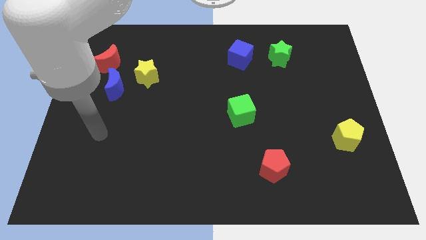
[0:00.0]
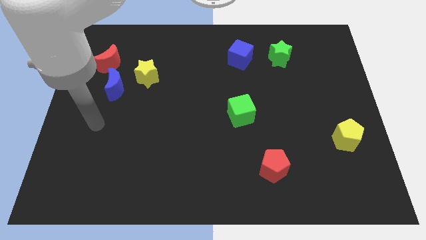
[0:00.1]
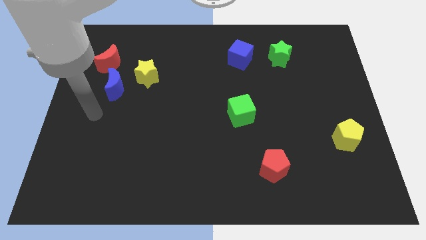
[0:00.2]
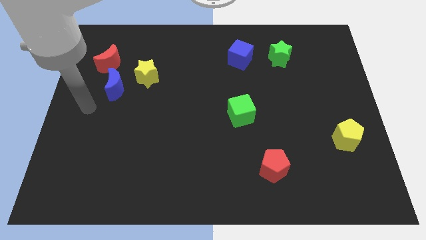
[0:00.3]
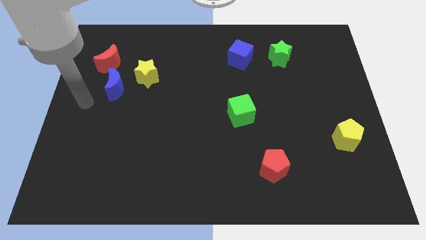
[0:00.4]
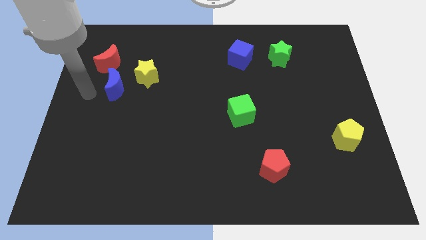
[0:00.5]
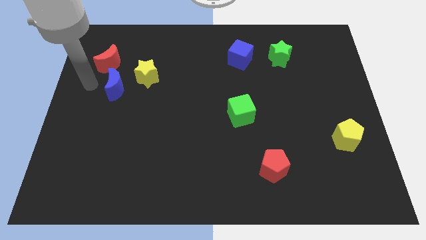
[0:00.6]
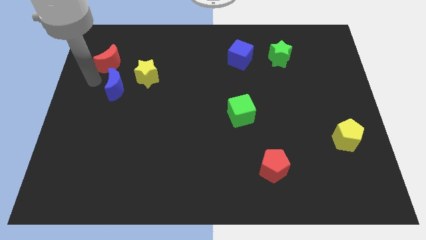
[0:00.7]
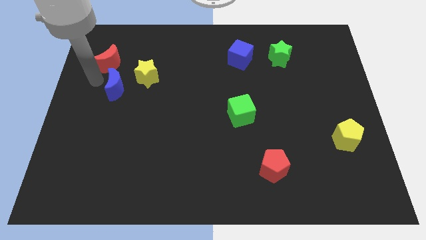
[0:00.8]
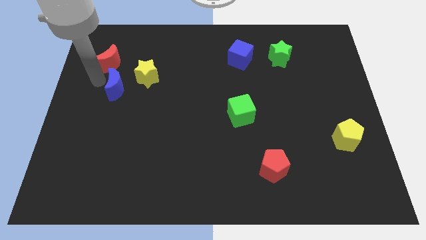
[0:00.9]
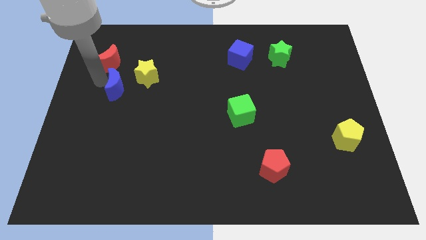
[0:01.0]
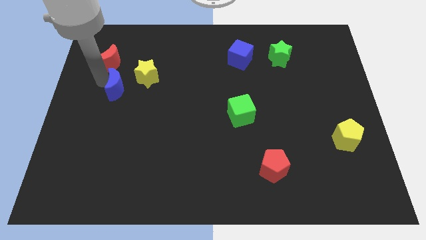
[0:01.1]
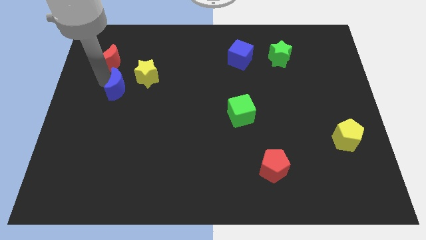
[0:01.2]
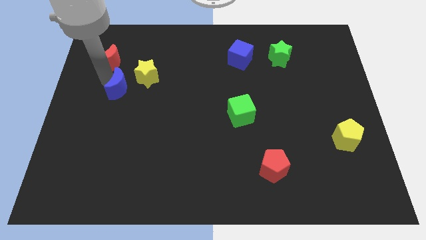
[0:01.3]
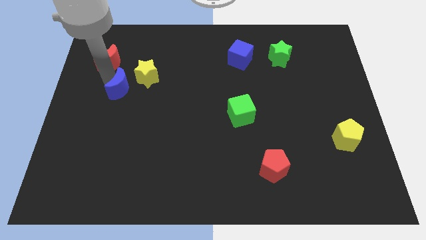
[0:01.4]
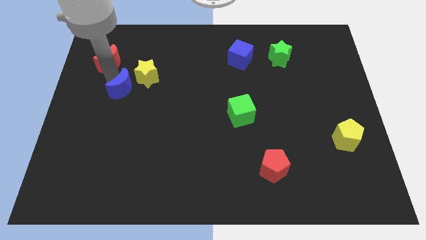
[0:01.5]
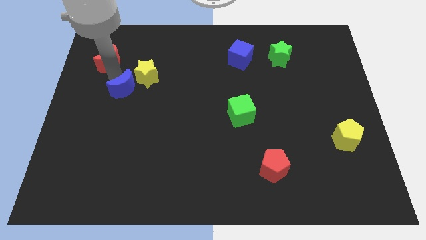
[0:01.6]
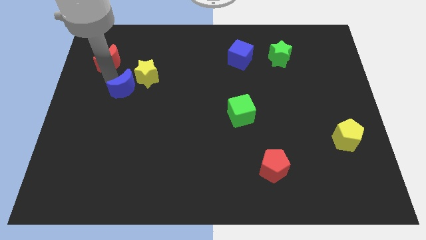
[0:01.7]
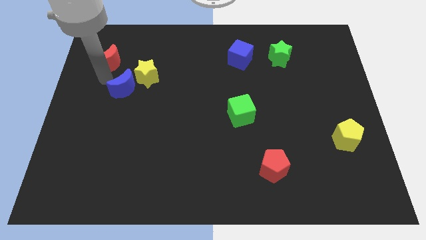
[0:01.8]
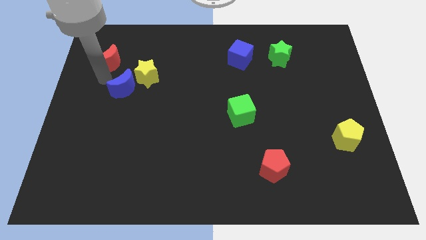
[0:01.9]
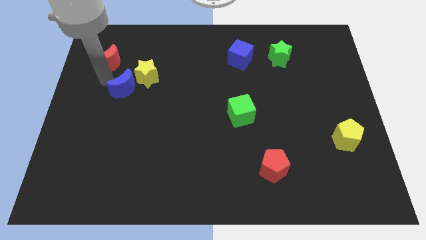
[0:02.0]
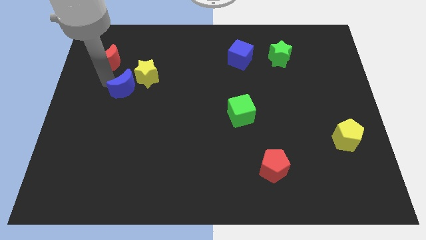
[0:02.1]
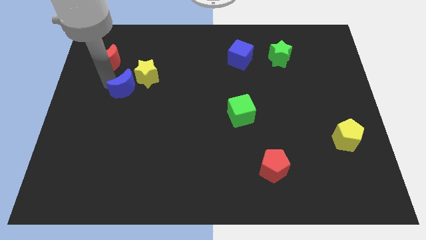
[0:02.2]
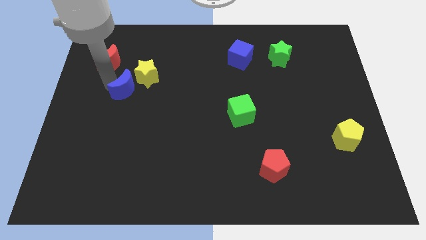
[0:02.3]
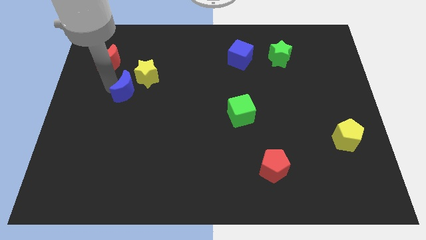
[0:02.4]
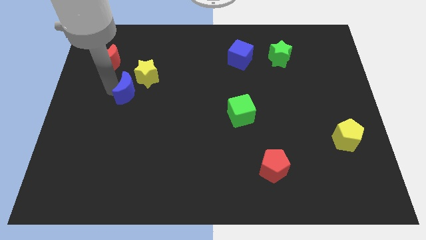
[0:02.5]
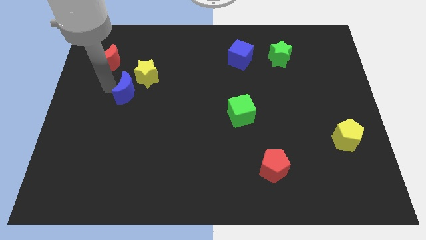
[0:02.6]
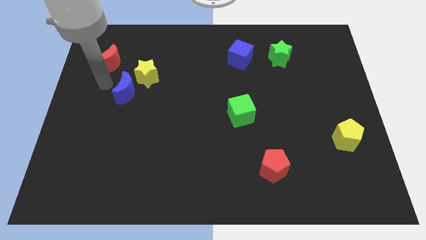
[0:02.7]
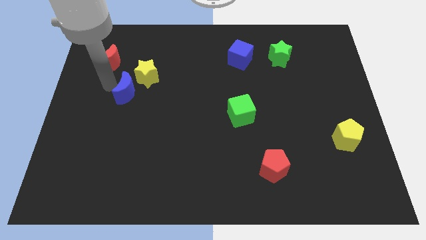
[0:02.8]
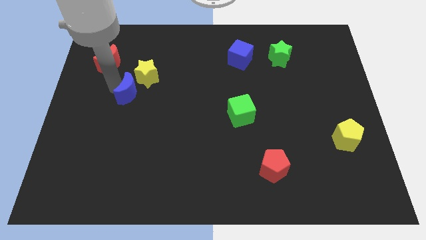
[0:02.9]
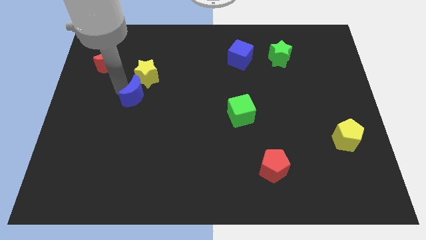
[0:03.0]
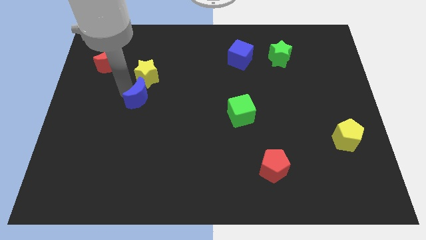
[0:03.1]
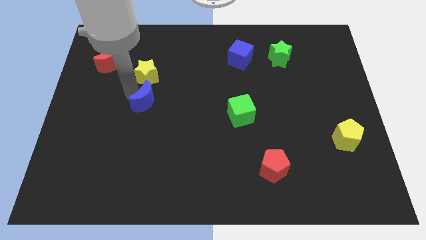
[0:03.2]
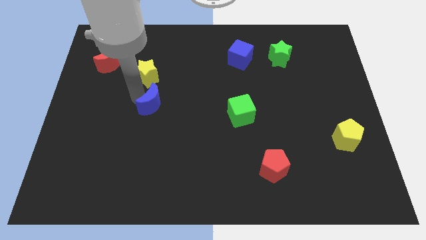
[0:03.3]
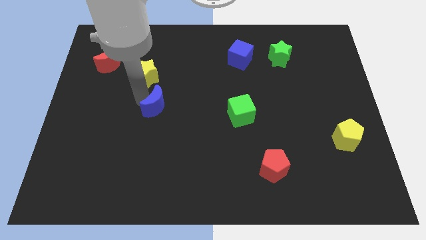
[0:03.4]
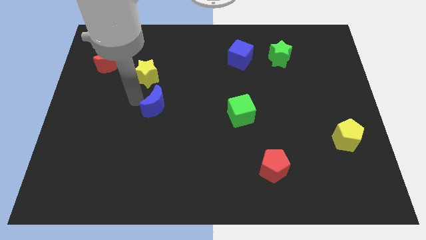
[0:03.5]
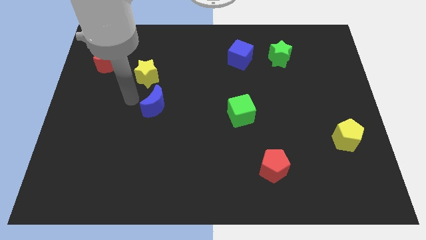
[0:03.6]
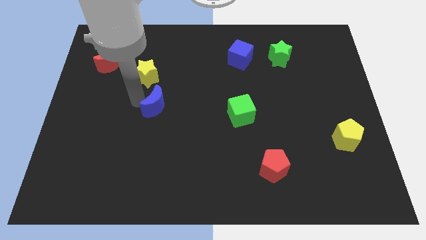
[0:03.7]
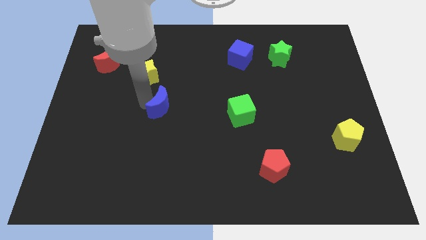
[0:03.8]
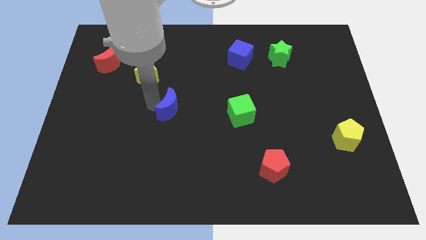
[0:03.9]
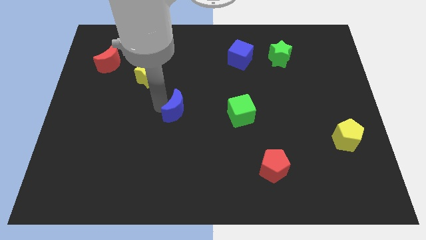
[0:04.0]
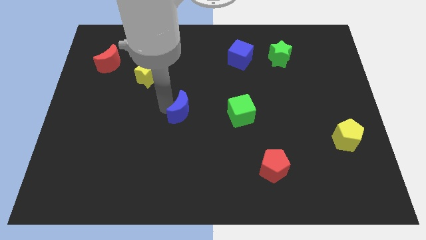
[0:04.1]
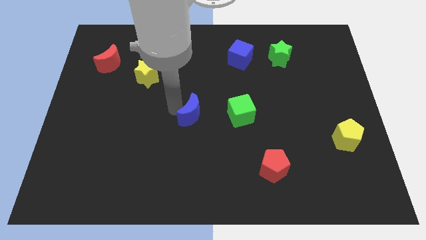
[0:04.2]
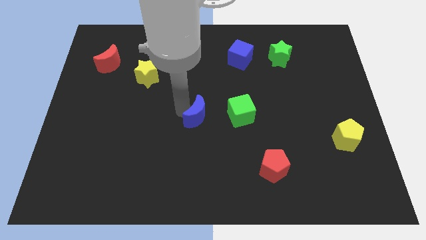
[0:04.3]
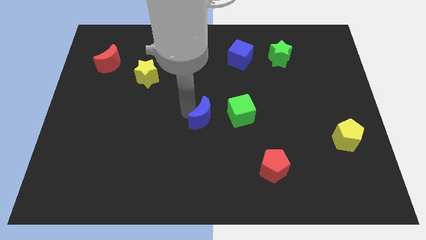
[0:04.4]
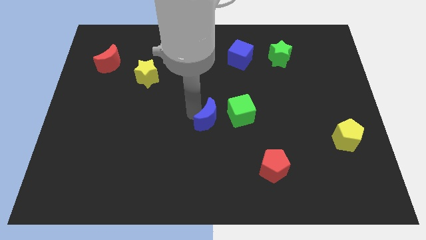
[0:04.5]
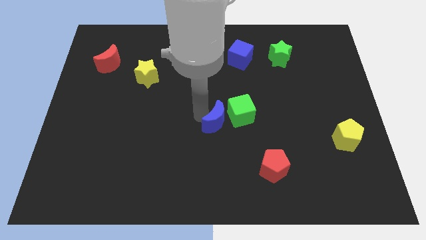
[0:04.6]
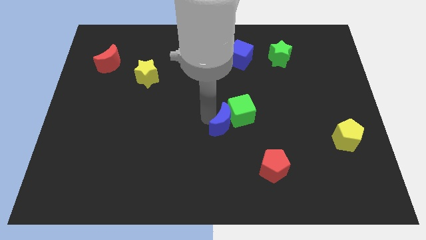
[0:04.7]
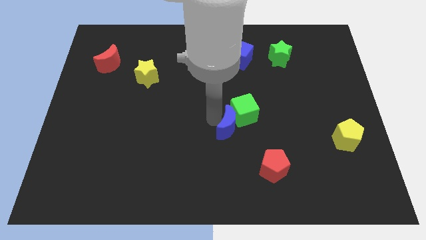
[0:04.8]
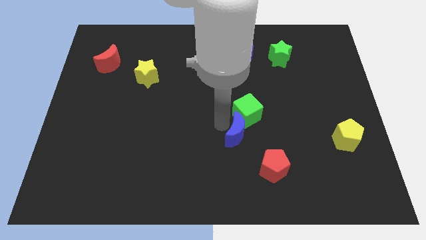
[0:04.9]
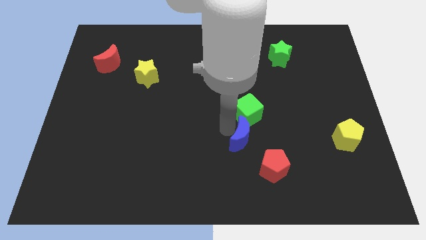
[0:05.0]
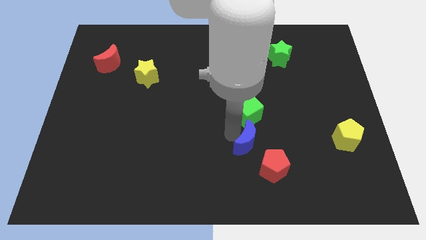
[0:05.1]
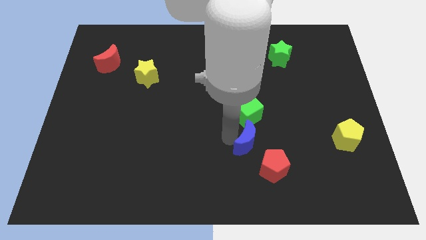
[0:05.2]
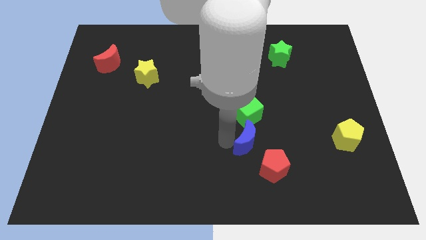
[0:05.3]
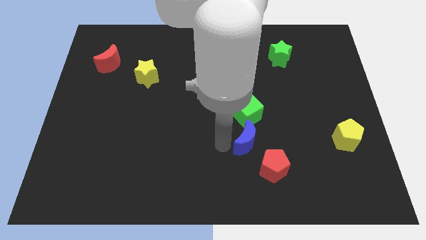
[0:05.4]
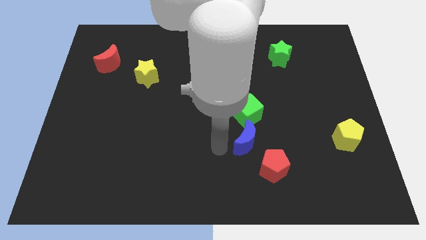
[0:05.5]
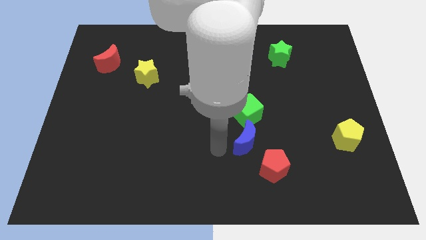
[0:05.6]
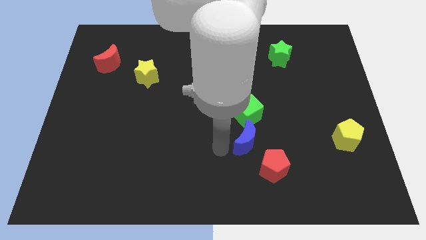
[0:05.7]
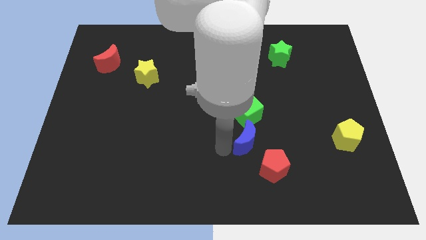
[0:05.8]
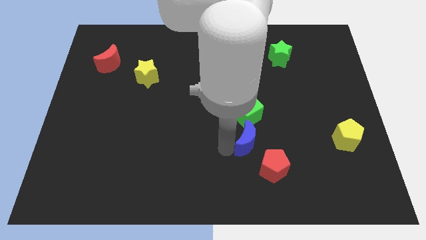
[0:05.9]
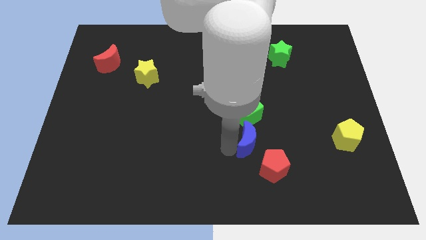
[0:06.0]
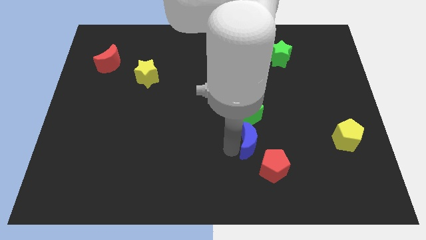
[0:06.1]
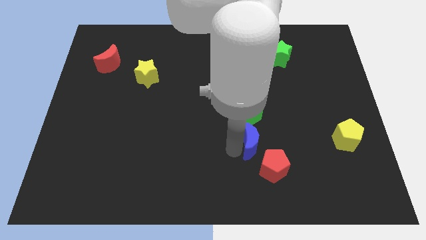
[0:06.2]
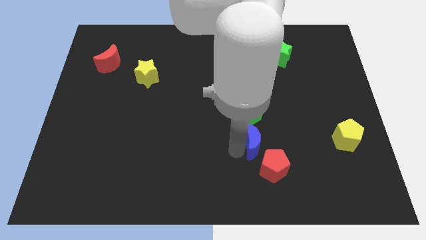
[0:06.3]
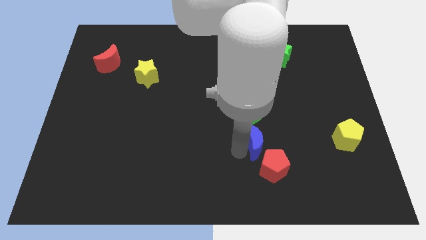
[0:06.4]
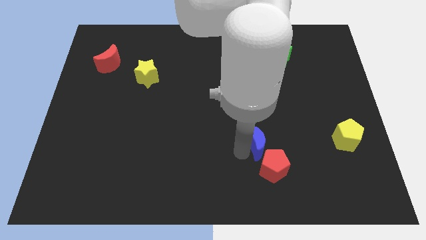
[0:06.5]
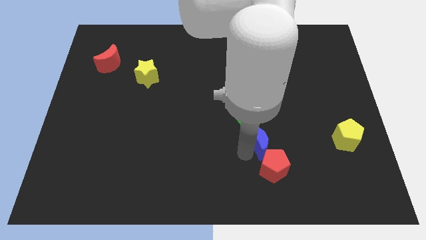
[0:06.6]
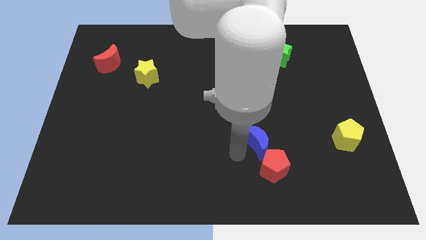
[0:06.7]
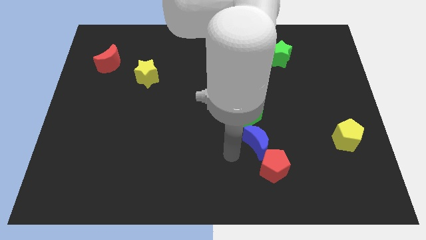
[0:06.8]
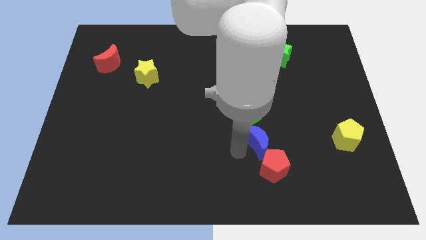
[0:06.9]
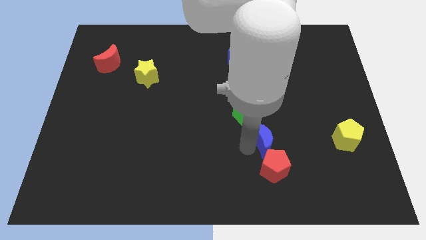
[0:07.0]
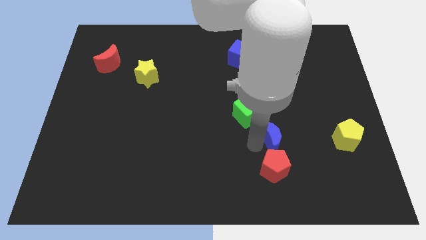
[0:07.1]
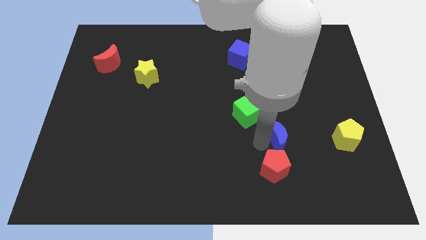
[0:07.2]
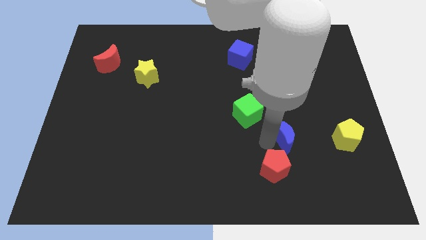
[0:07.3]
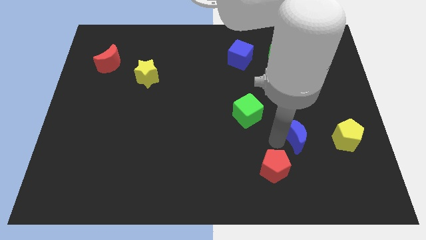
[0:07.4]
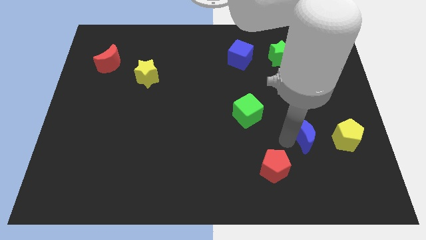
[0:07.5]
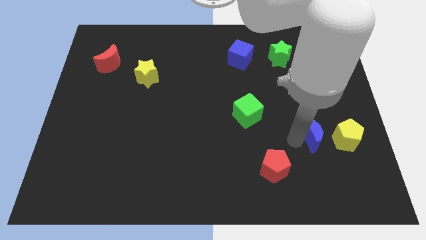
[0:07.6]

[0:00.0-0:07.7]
push the blue moon to the top left side of the yellow pentagon
